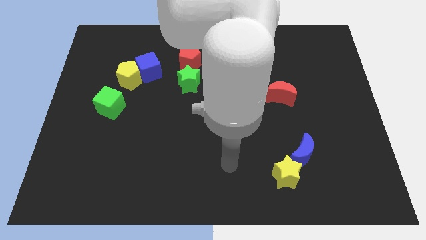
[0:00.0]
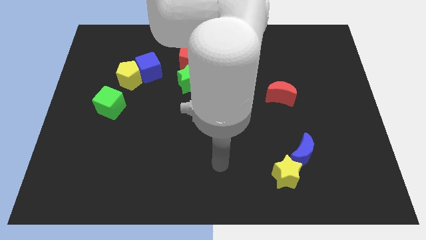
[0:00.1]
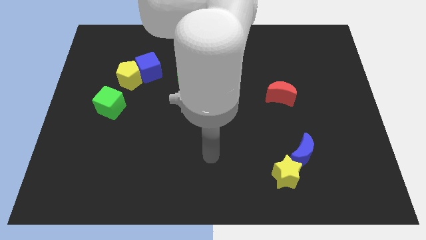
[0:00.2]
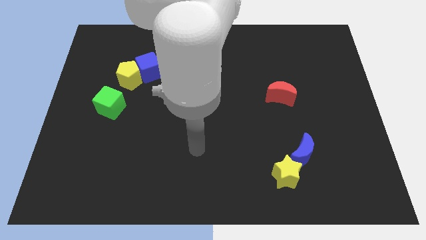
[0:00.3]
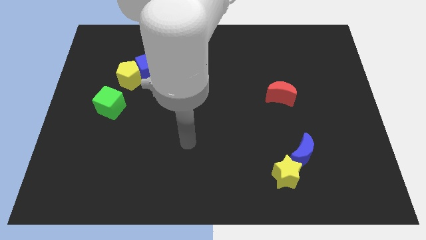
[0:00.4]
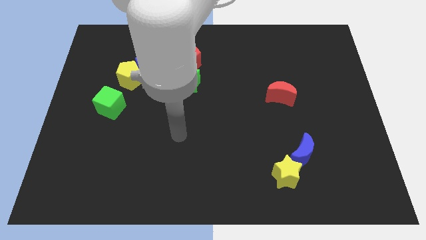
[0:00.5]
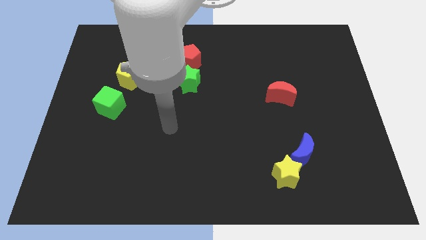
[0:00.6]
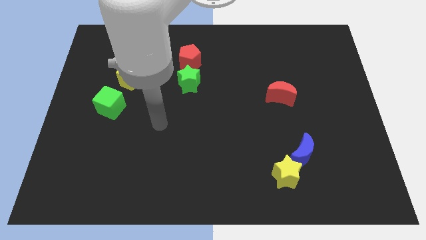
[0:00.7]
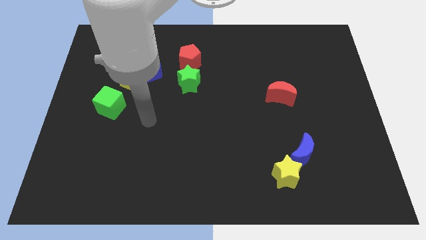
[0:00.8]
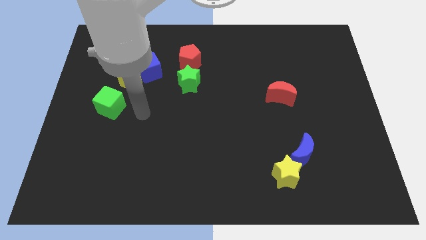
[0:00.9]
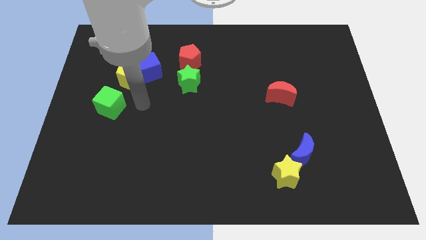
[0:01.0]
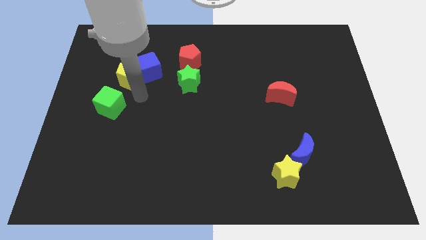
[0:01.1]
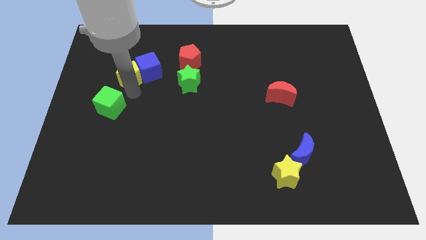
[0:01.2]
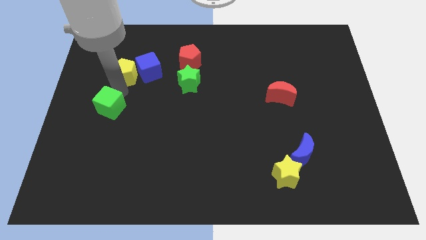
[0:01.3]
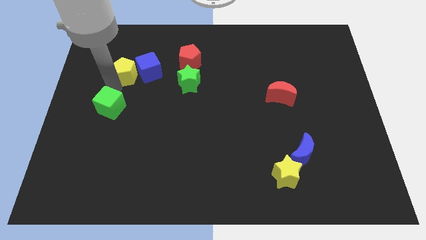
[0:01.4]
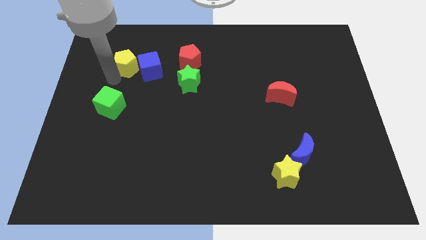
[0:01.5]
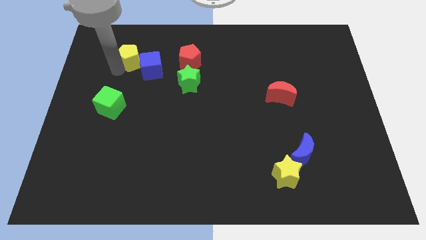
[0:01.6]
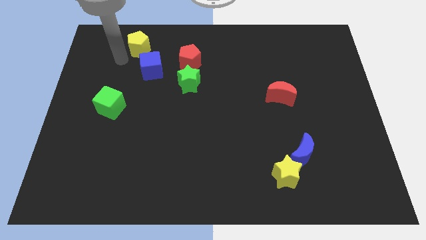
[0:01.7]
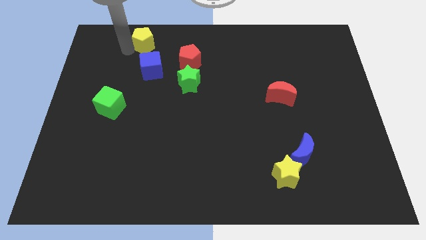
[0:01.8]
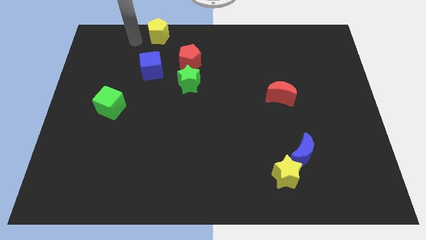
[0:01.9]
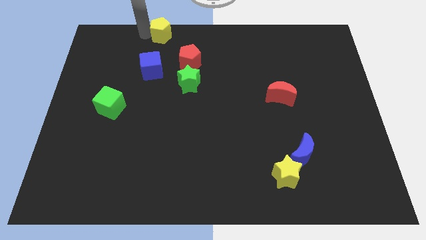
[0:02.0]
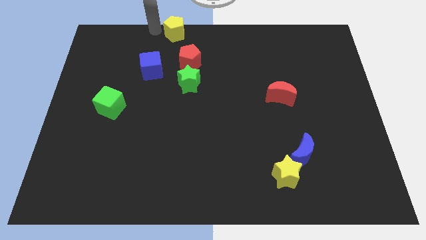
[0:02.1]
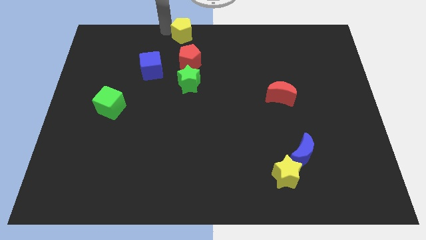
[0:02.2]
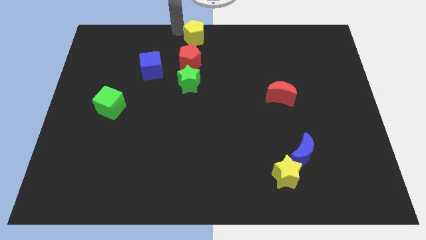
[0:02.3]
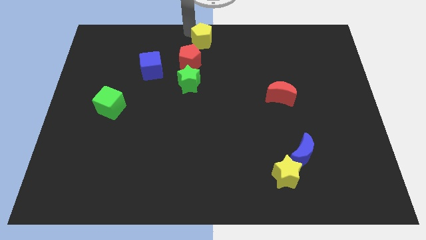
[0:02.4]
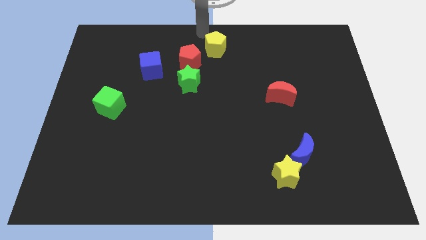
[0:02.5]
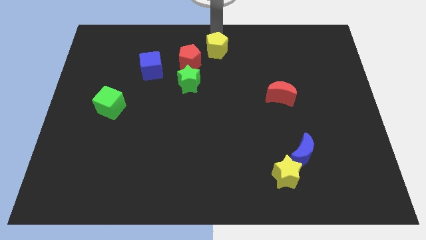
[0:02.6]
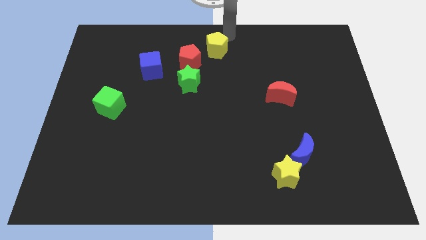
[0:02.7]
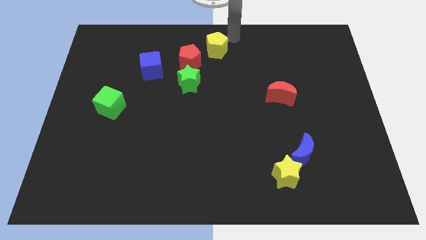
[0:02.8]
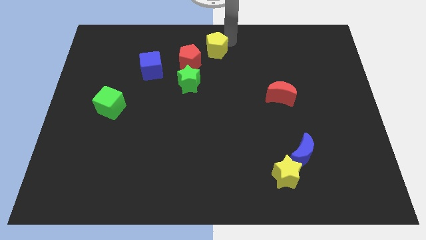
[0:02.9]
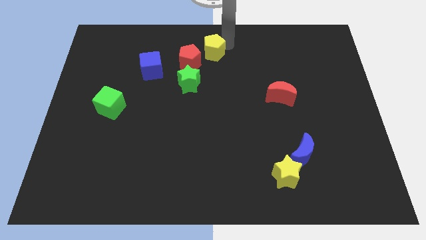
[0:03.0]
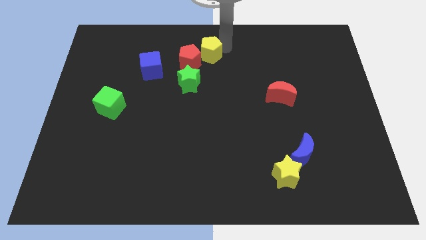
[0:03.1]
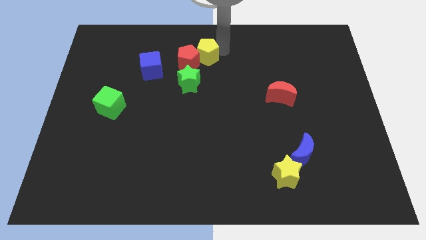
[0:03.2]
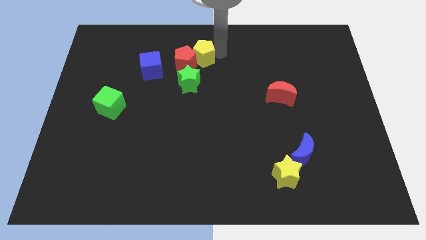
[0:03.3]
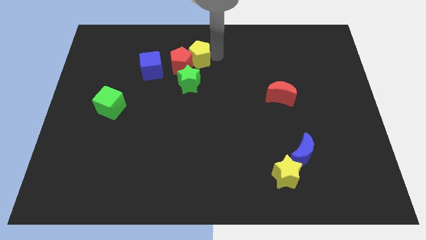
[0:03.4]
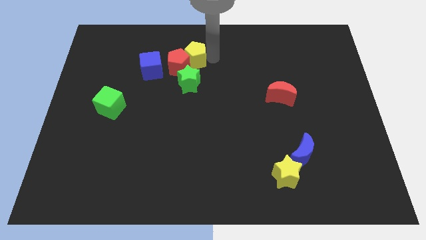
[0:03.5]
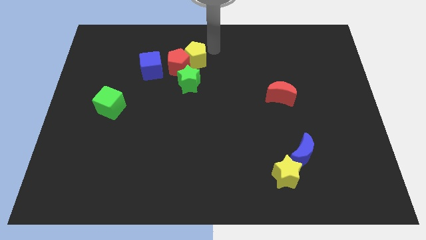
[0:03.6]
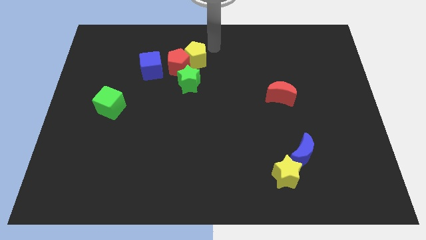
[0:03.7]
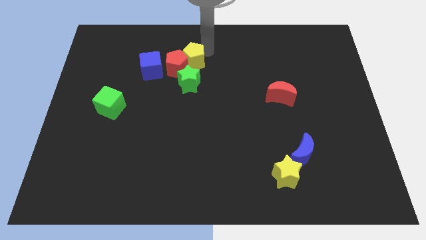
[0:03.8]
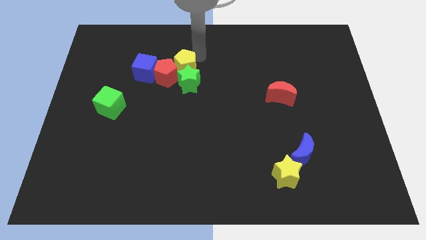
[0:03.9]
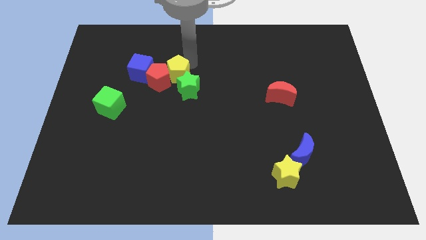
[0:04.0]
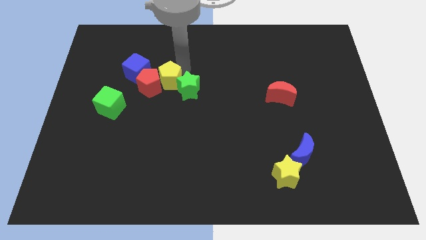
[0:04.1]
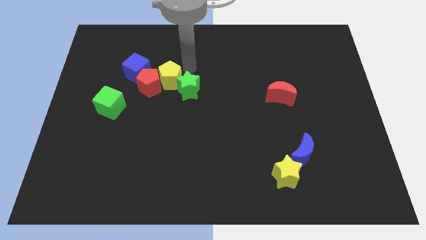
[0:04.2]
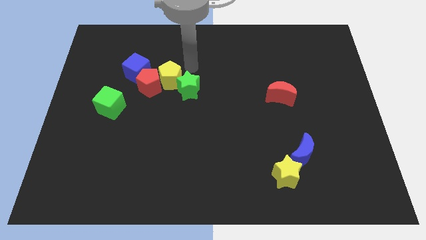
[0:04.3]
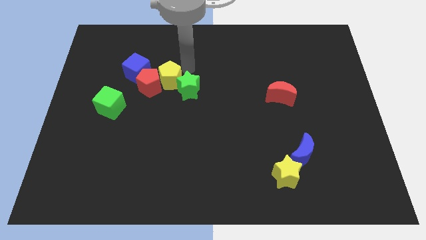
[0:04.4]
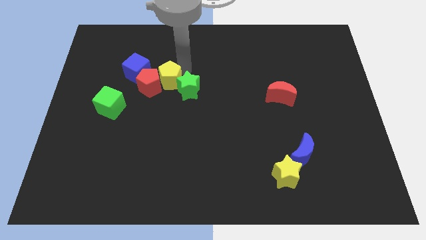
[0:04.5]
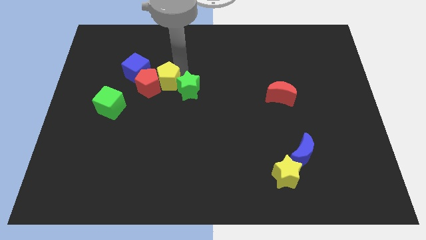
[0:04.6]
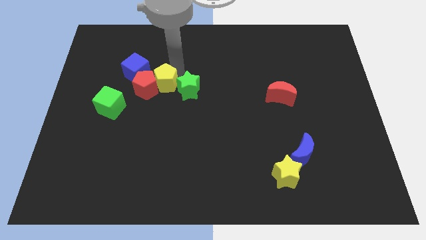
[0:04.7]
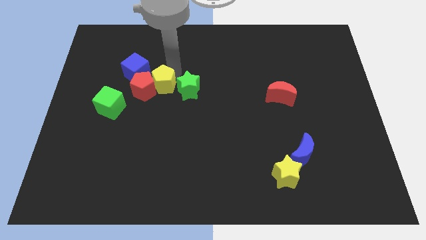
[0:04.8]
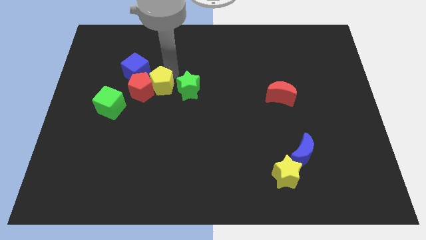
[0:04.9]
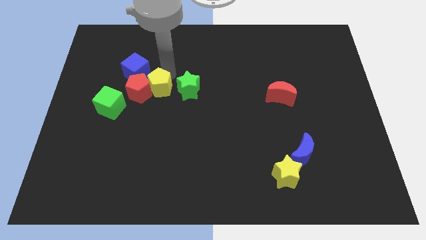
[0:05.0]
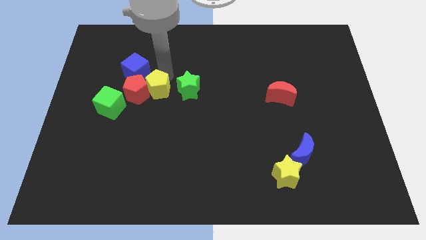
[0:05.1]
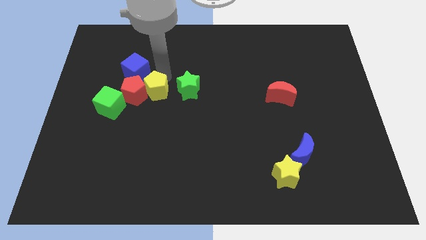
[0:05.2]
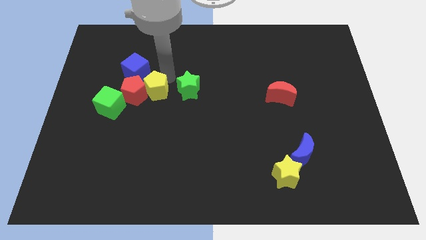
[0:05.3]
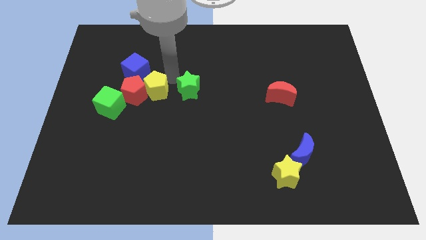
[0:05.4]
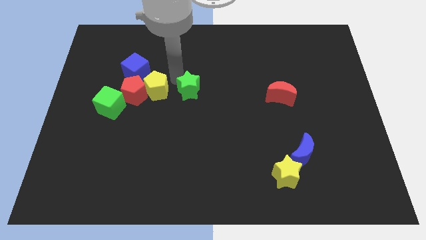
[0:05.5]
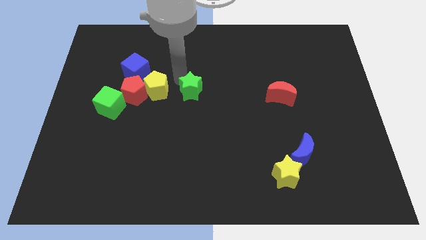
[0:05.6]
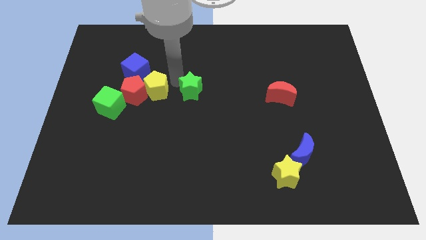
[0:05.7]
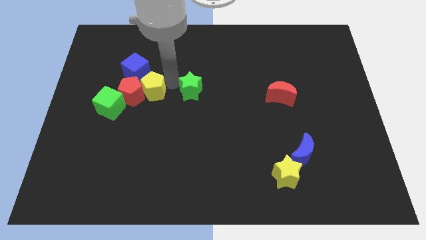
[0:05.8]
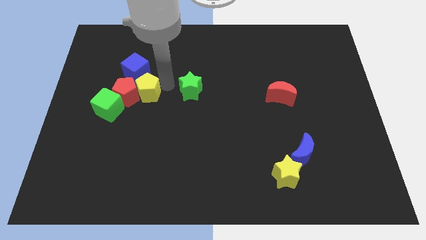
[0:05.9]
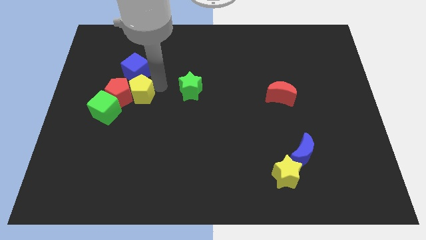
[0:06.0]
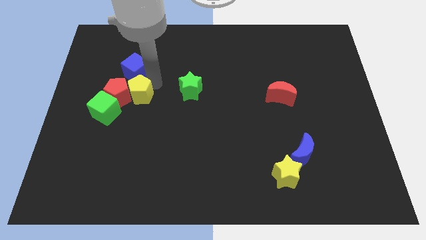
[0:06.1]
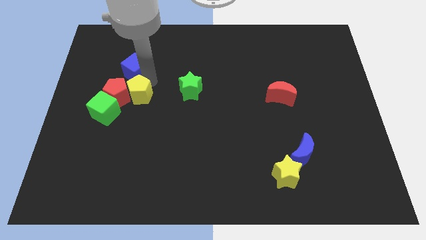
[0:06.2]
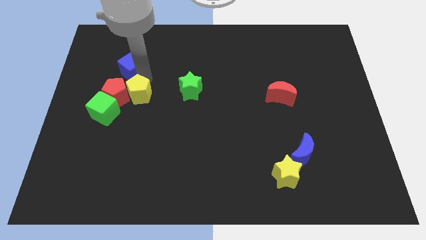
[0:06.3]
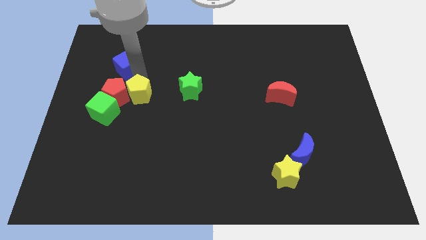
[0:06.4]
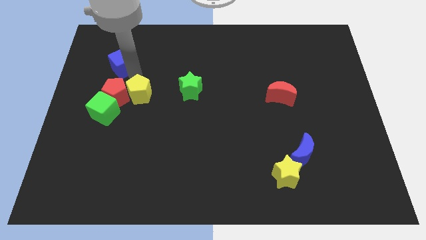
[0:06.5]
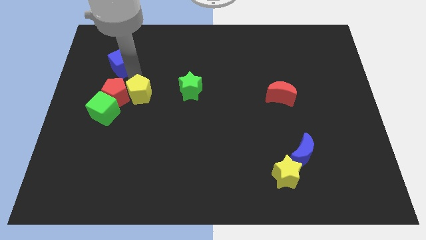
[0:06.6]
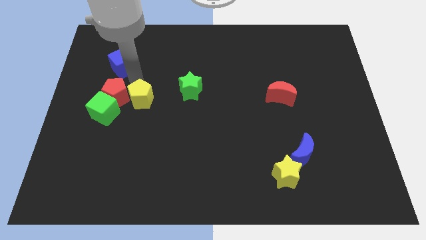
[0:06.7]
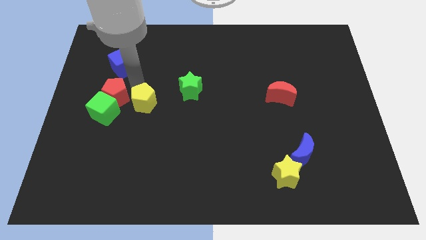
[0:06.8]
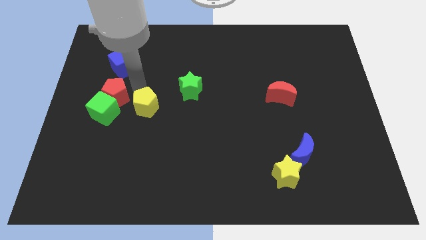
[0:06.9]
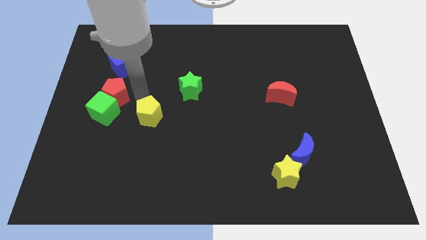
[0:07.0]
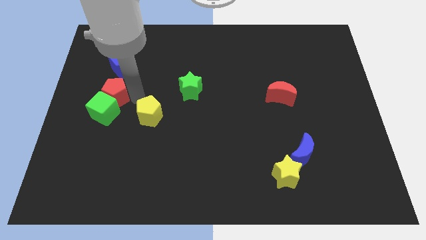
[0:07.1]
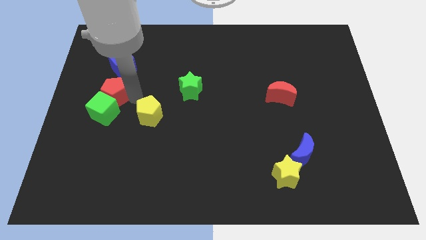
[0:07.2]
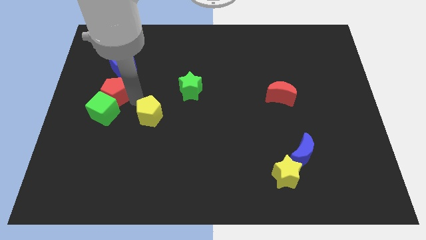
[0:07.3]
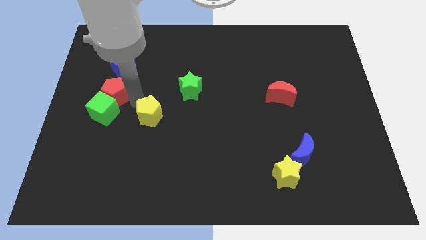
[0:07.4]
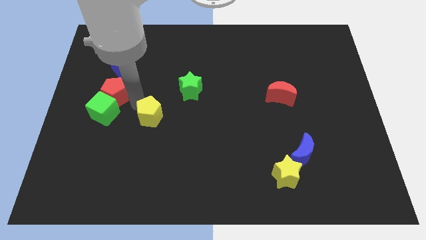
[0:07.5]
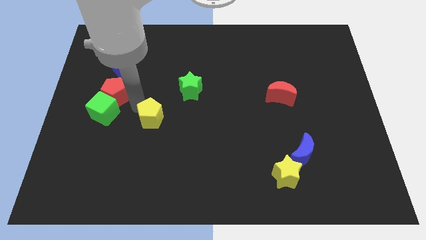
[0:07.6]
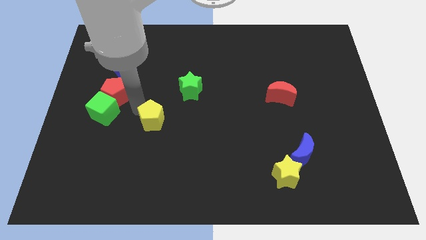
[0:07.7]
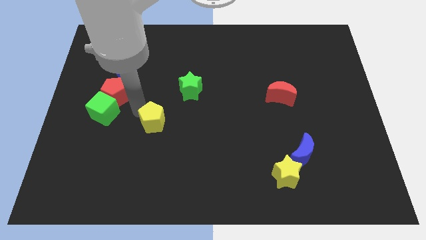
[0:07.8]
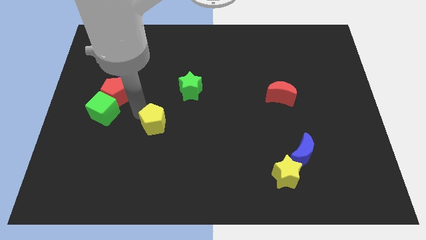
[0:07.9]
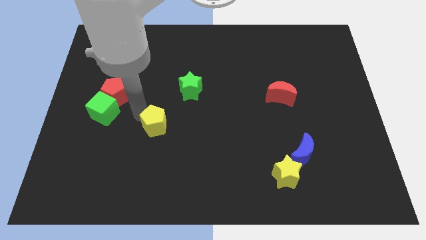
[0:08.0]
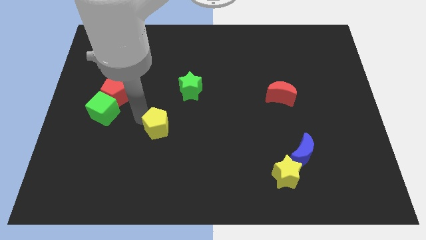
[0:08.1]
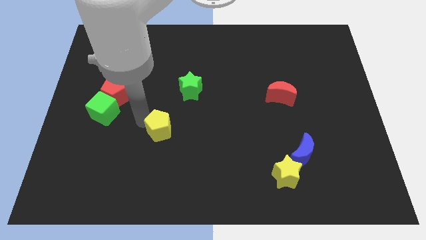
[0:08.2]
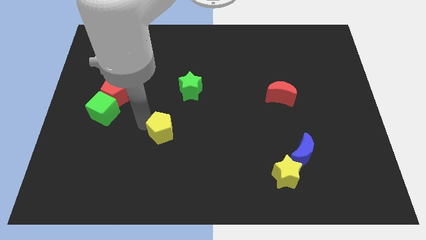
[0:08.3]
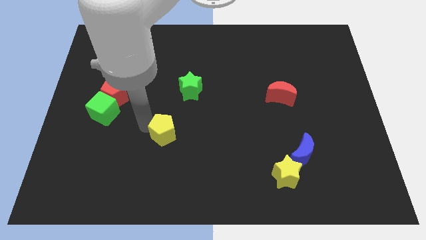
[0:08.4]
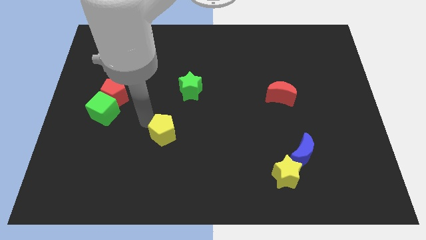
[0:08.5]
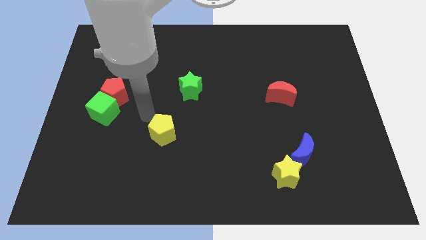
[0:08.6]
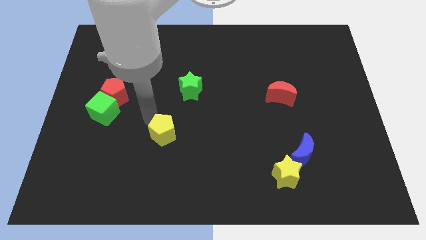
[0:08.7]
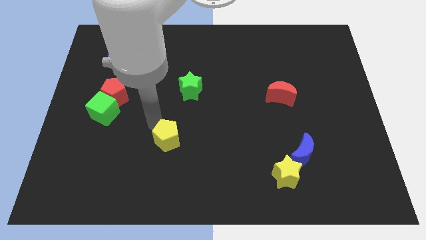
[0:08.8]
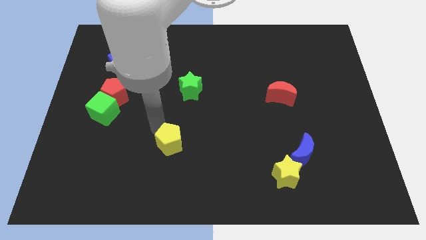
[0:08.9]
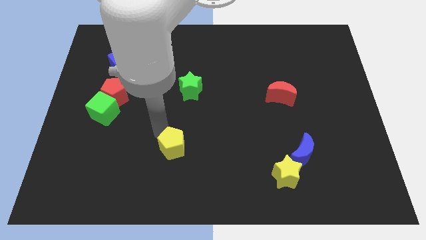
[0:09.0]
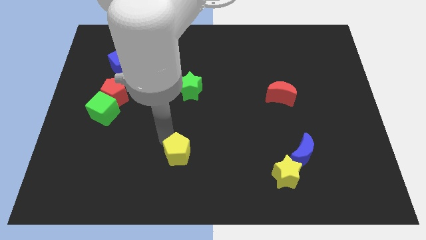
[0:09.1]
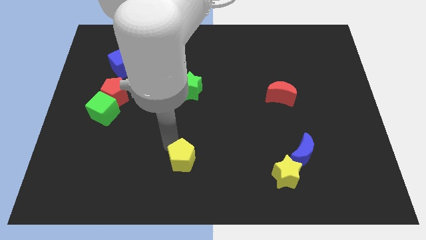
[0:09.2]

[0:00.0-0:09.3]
move the yellow pentagon to the bottom side
